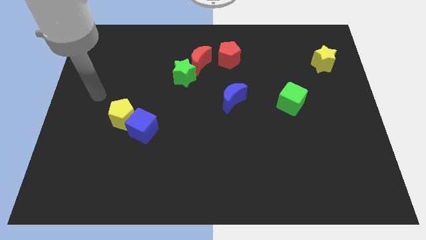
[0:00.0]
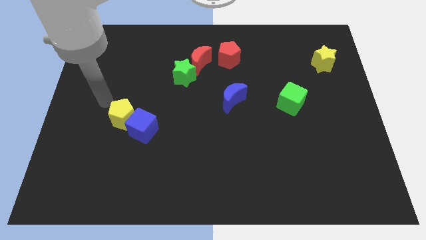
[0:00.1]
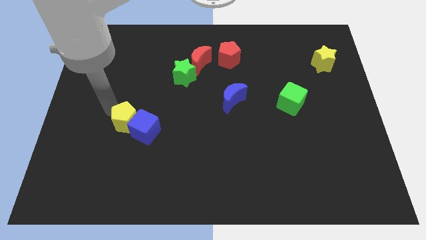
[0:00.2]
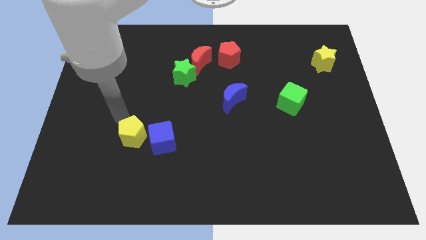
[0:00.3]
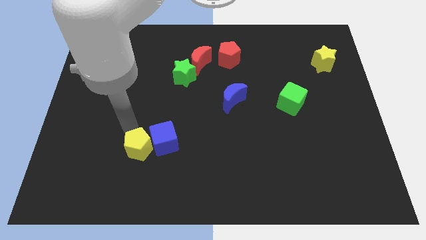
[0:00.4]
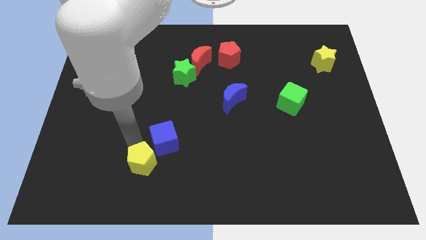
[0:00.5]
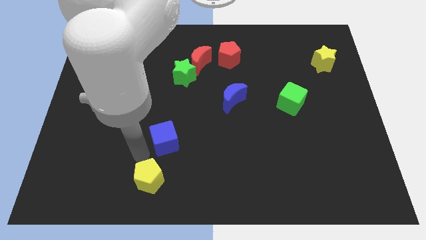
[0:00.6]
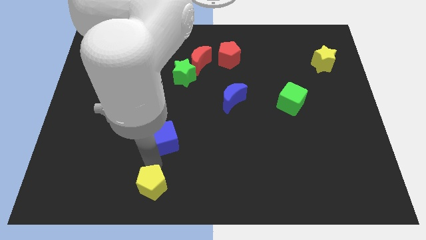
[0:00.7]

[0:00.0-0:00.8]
move the blue cube away from the yellow pentagon

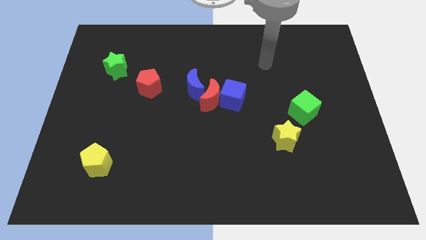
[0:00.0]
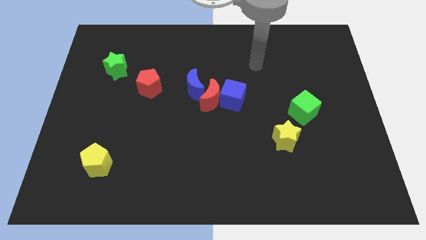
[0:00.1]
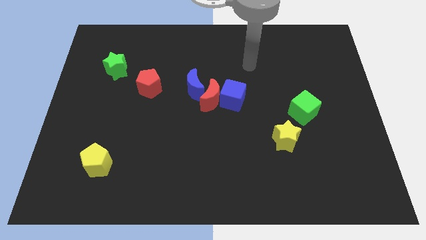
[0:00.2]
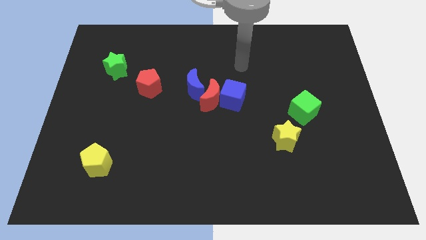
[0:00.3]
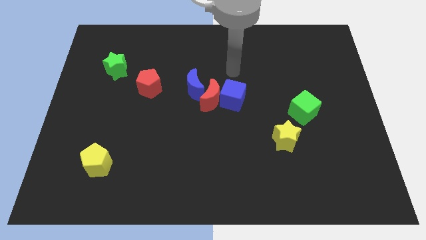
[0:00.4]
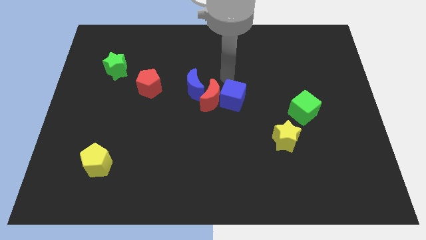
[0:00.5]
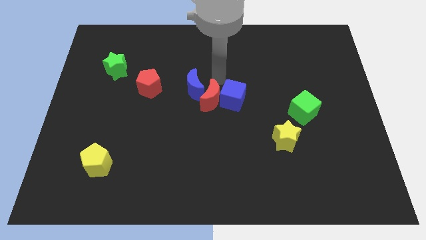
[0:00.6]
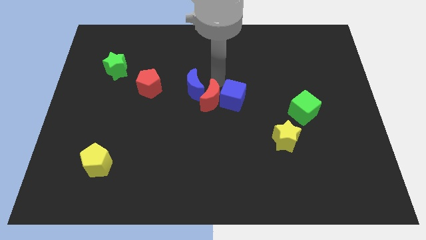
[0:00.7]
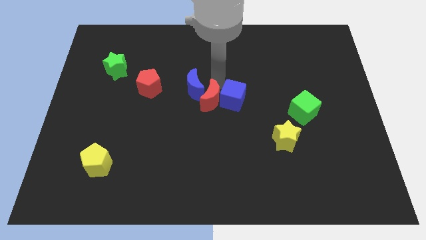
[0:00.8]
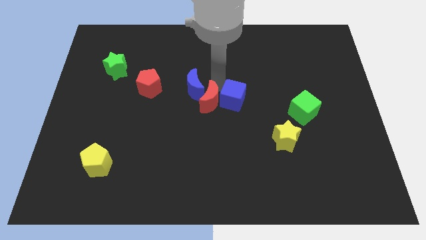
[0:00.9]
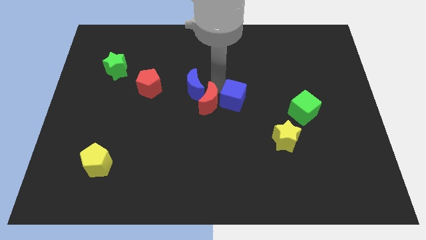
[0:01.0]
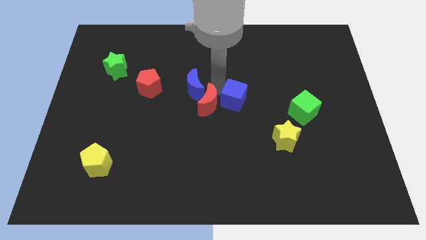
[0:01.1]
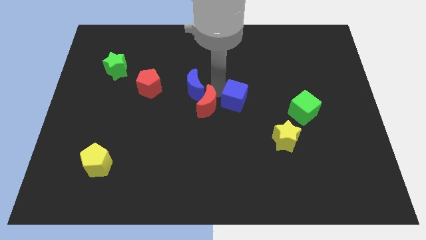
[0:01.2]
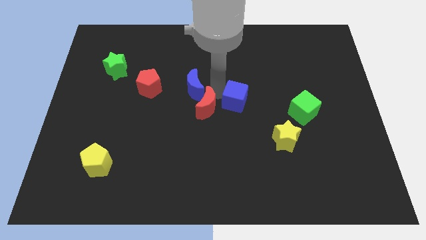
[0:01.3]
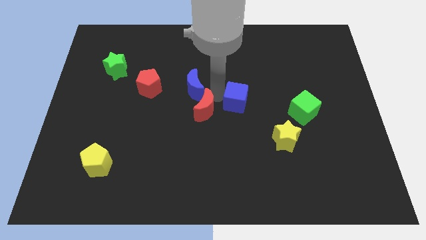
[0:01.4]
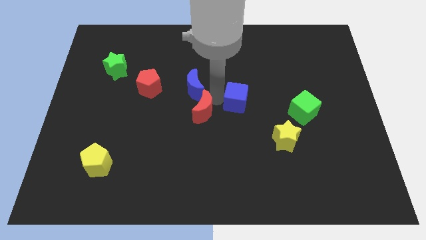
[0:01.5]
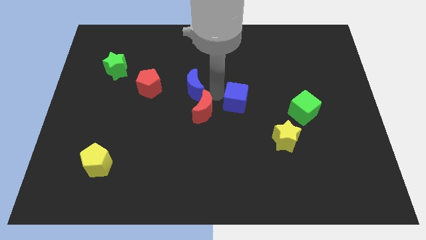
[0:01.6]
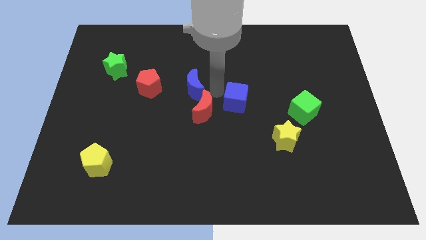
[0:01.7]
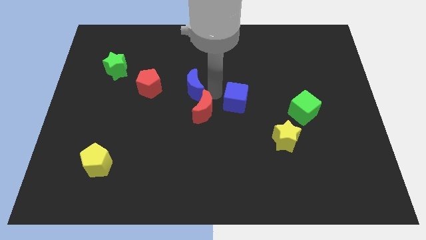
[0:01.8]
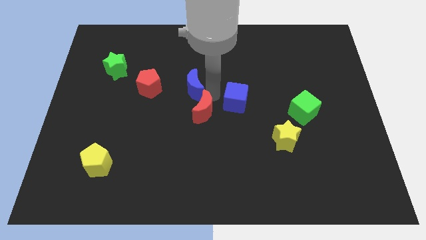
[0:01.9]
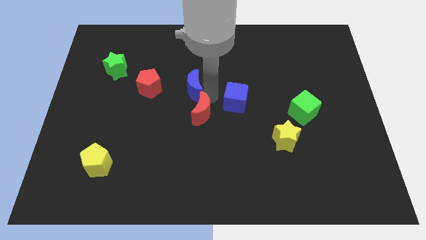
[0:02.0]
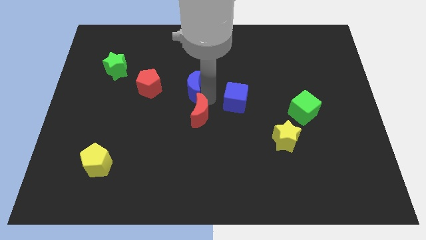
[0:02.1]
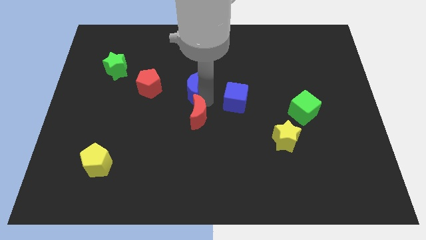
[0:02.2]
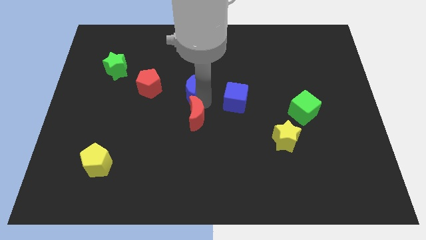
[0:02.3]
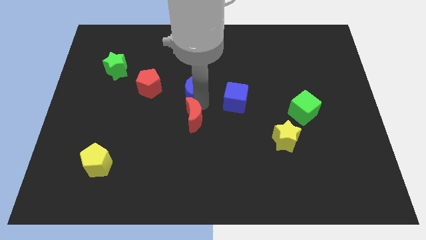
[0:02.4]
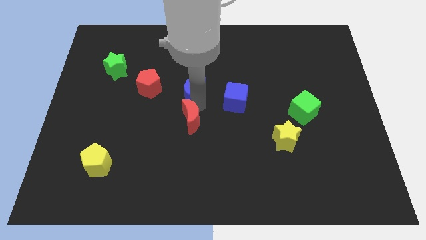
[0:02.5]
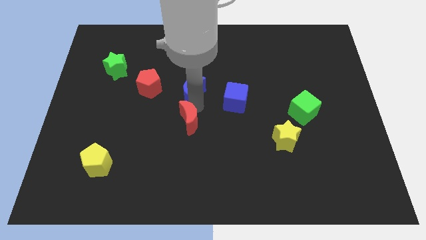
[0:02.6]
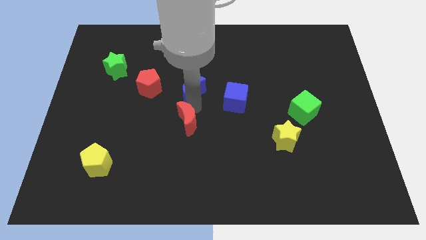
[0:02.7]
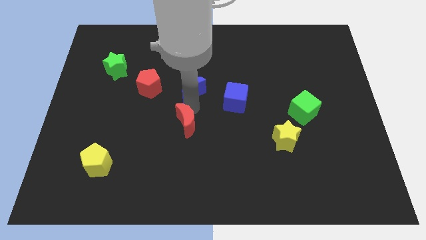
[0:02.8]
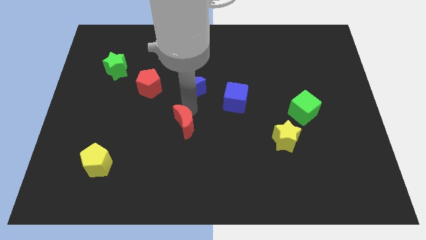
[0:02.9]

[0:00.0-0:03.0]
pull the red moon apart from the blue cube and blue moon

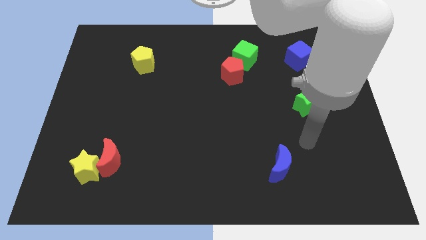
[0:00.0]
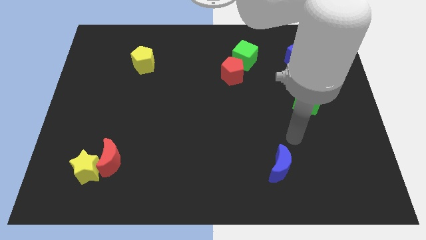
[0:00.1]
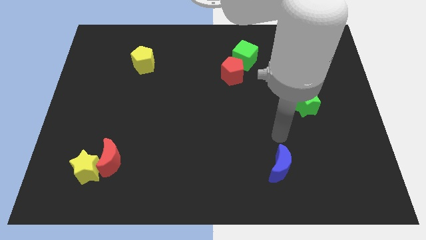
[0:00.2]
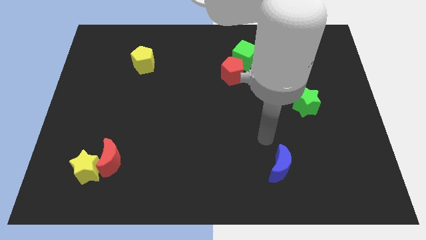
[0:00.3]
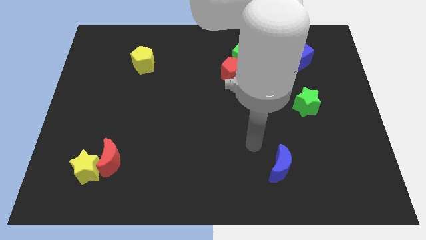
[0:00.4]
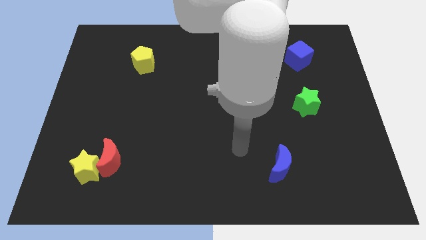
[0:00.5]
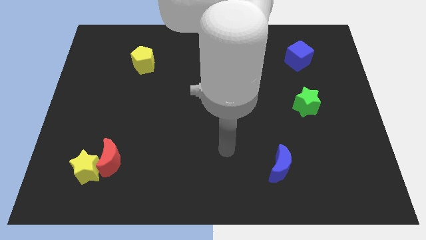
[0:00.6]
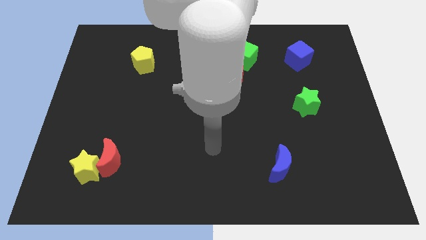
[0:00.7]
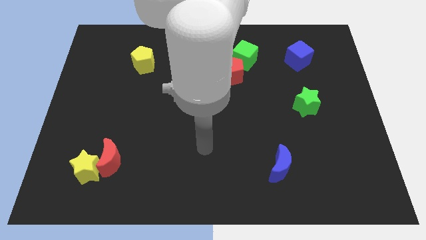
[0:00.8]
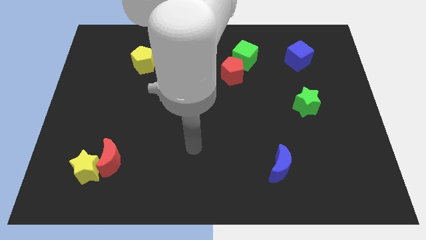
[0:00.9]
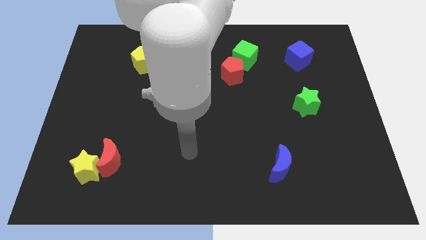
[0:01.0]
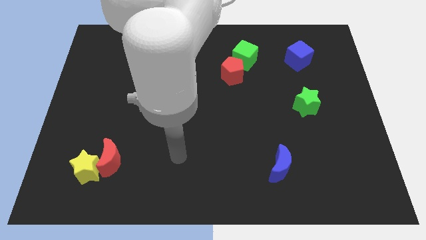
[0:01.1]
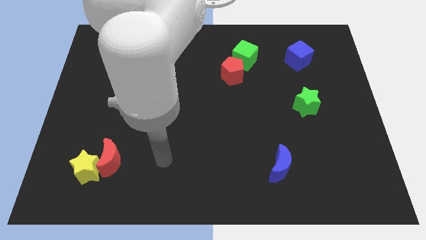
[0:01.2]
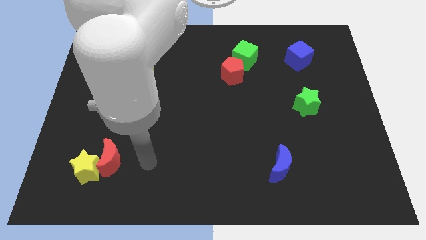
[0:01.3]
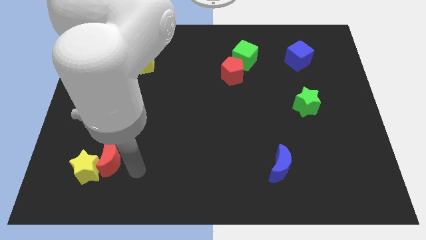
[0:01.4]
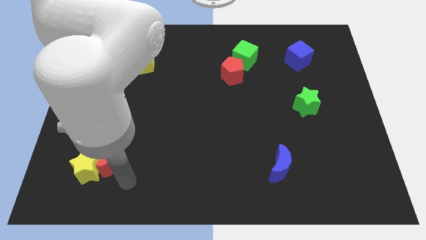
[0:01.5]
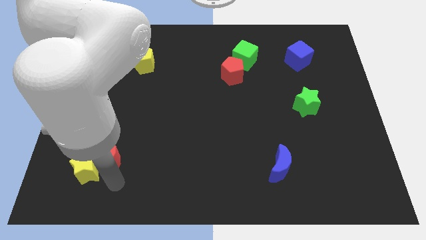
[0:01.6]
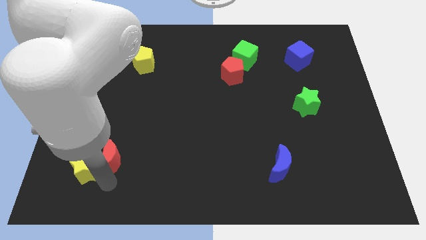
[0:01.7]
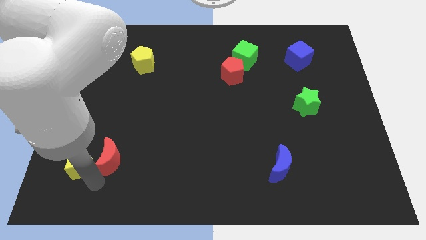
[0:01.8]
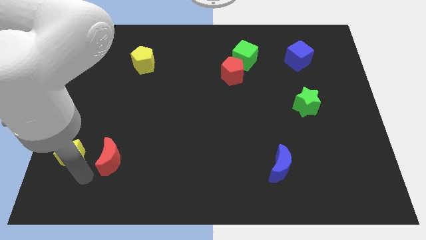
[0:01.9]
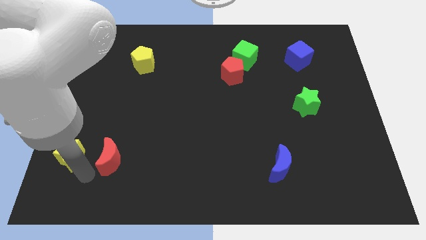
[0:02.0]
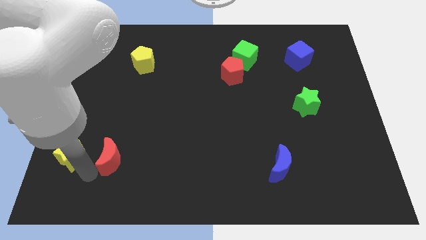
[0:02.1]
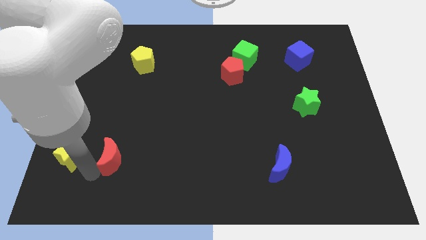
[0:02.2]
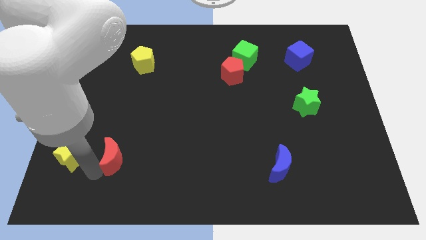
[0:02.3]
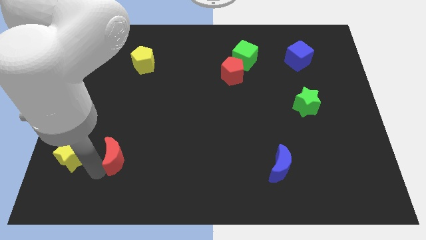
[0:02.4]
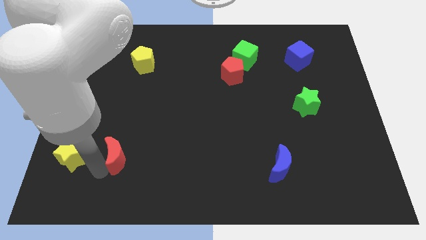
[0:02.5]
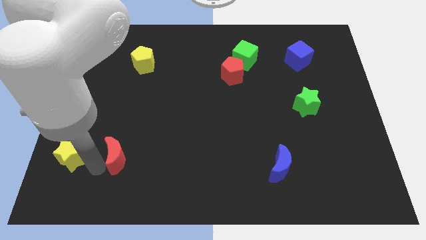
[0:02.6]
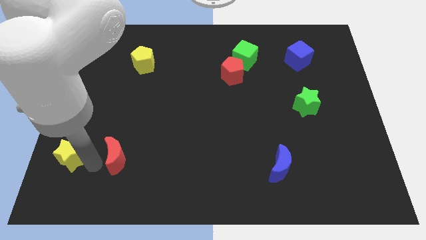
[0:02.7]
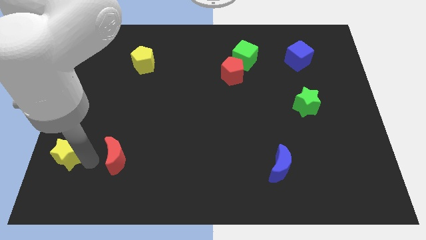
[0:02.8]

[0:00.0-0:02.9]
move the red moon away from the yellow star

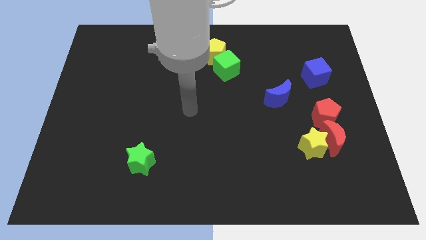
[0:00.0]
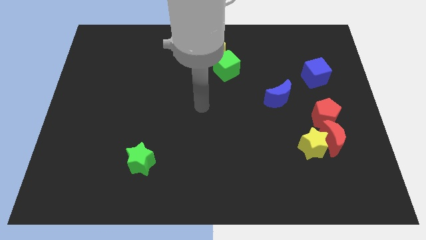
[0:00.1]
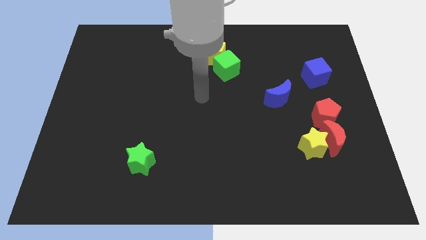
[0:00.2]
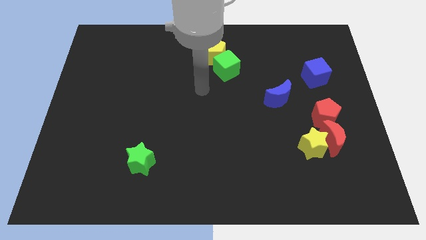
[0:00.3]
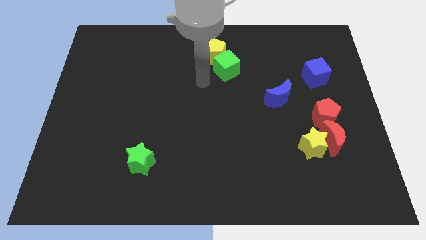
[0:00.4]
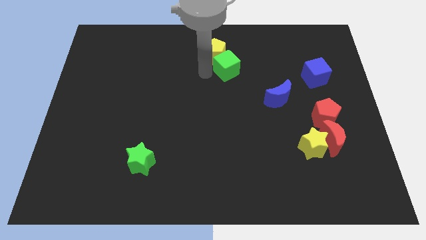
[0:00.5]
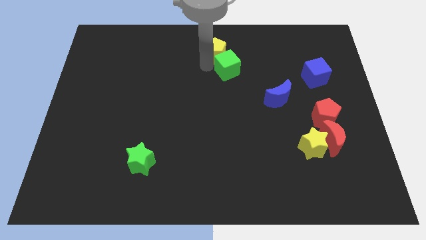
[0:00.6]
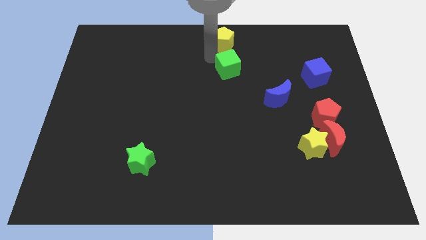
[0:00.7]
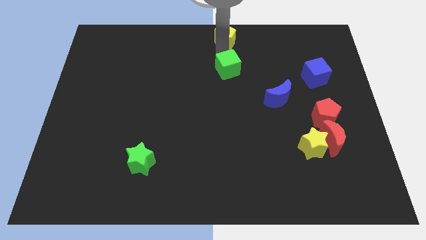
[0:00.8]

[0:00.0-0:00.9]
pull the green cube apart from the yellow pentagon

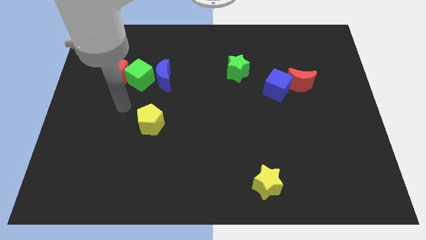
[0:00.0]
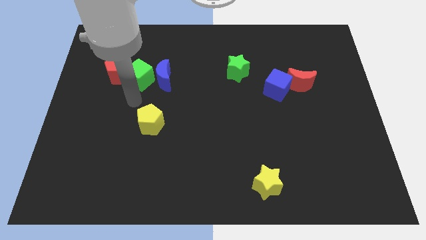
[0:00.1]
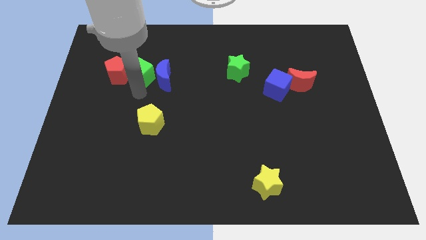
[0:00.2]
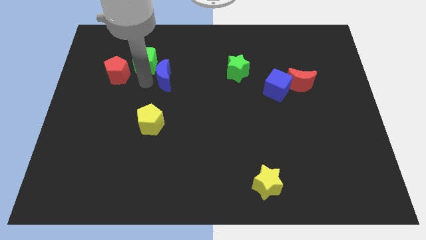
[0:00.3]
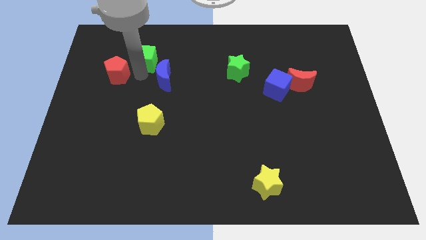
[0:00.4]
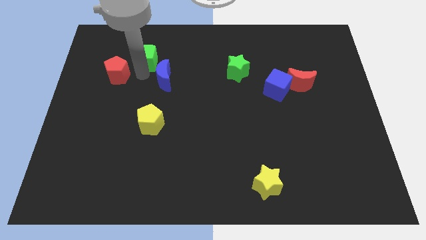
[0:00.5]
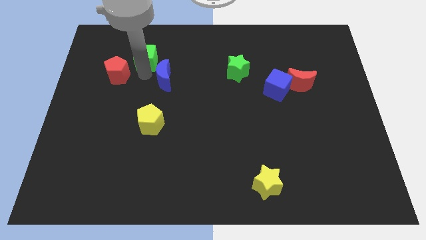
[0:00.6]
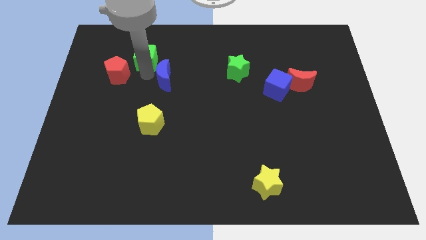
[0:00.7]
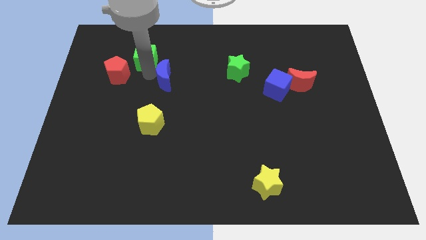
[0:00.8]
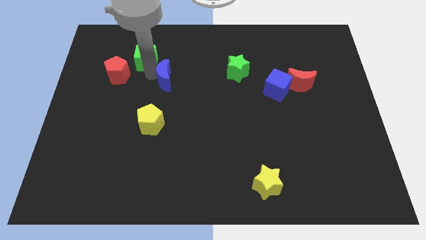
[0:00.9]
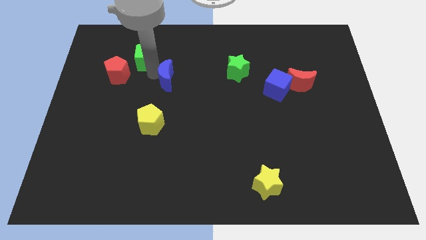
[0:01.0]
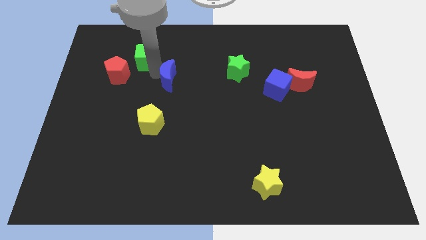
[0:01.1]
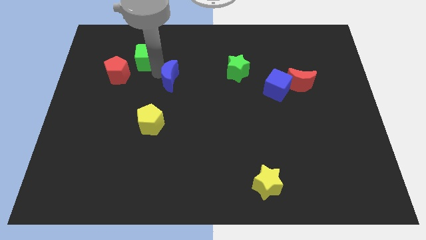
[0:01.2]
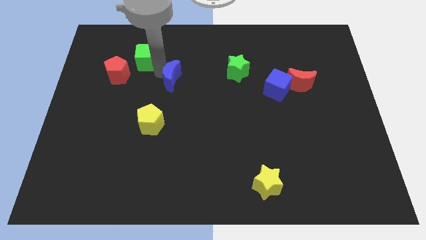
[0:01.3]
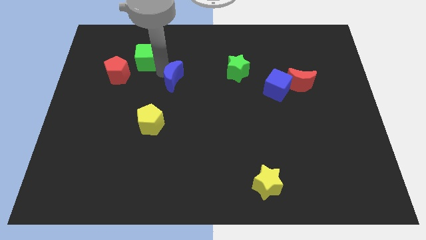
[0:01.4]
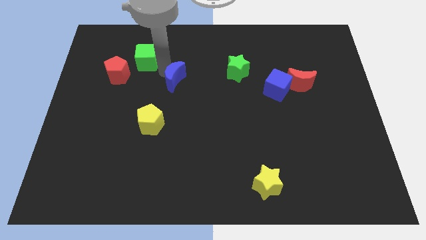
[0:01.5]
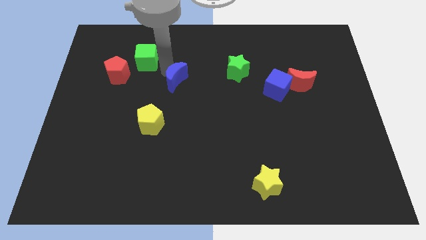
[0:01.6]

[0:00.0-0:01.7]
separate the blue moon from the green cube
